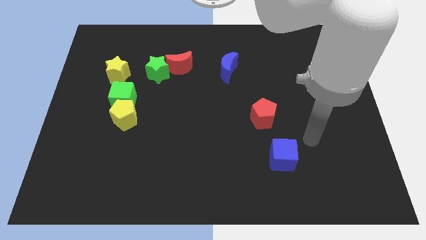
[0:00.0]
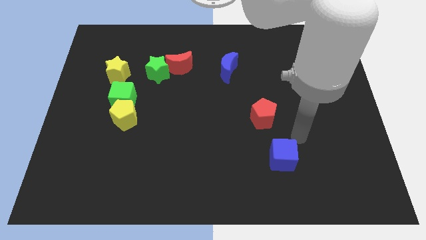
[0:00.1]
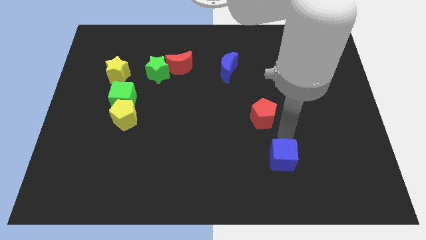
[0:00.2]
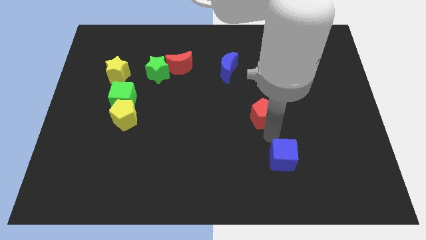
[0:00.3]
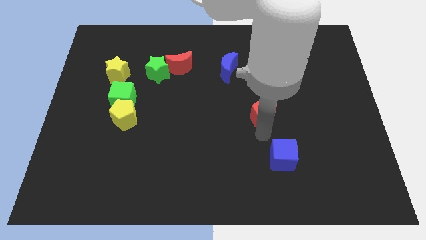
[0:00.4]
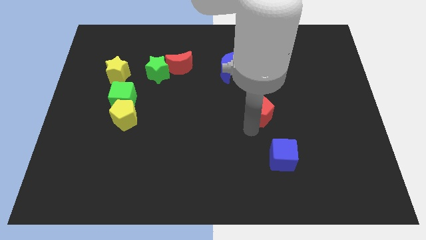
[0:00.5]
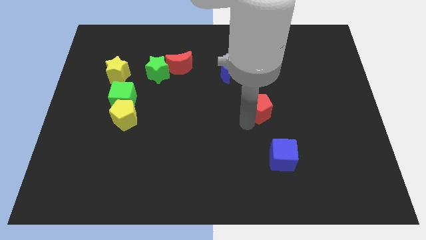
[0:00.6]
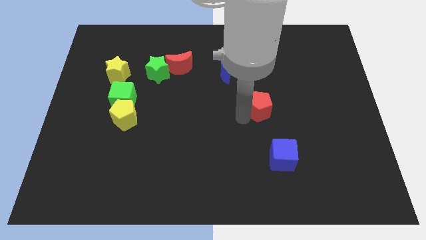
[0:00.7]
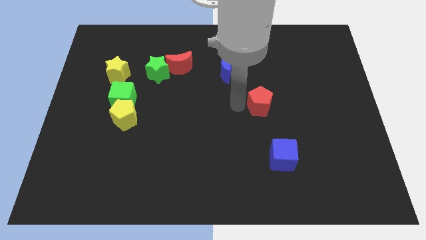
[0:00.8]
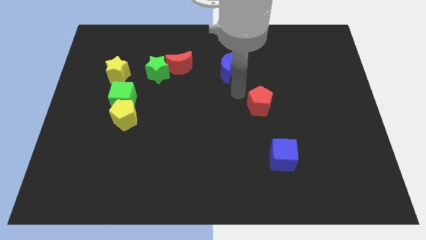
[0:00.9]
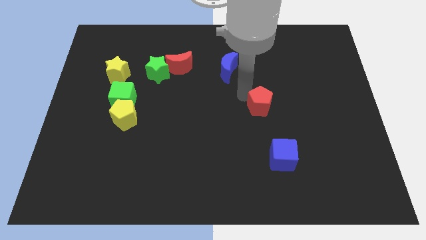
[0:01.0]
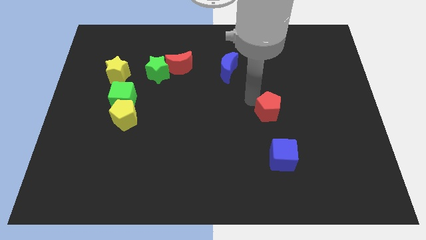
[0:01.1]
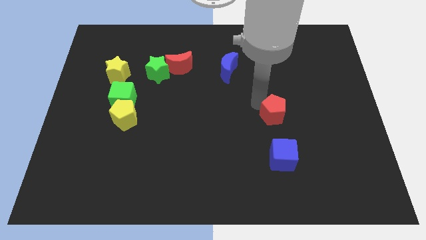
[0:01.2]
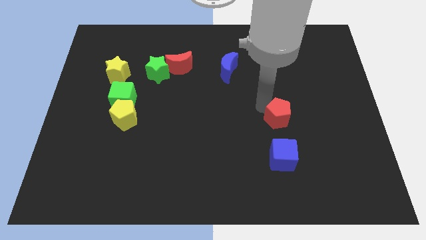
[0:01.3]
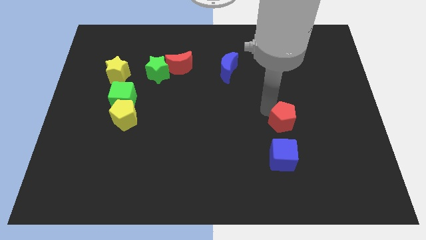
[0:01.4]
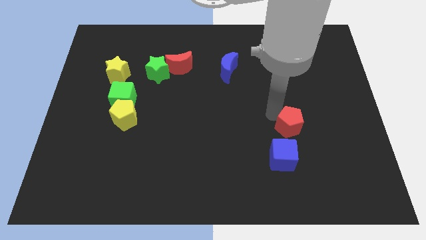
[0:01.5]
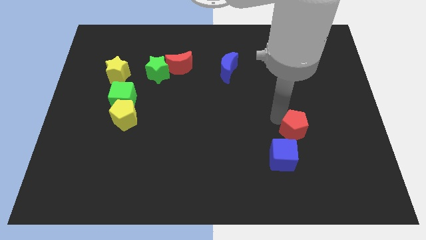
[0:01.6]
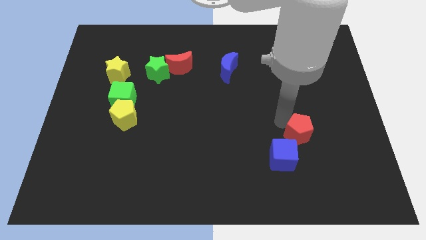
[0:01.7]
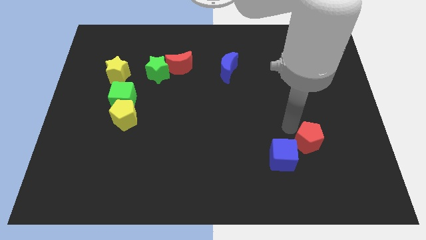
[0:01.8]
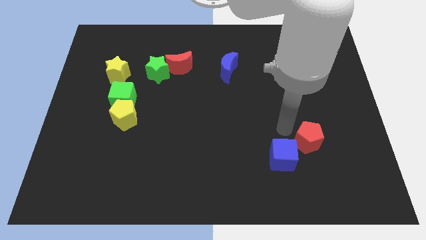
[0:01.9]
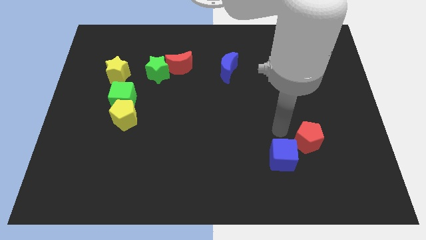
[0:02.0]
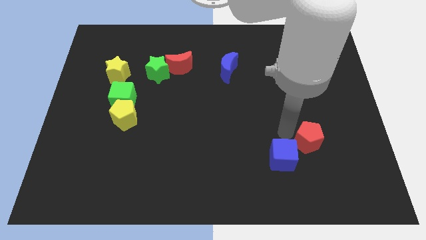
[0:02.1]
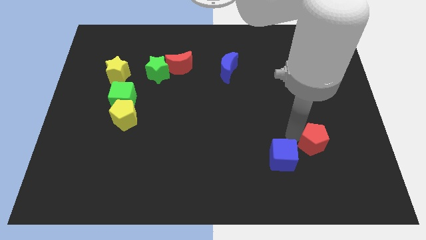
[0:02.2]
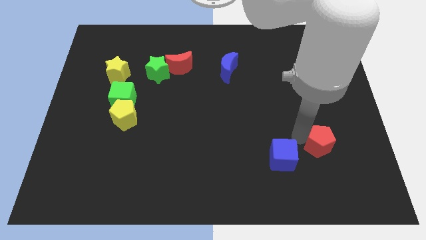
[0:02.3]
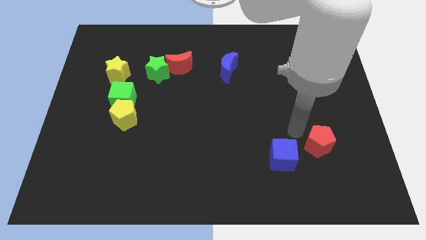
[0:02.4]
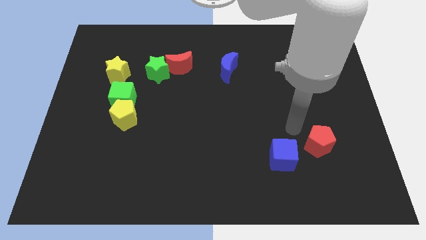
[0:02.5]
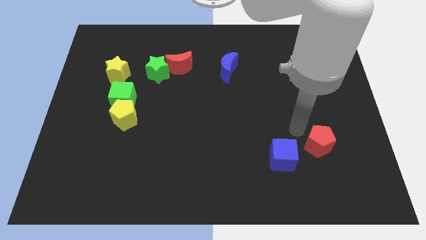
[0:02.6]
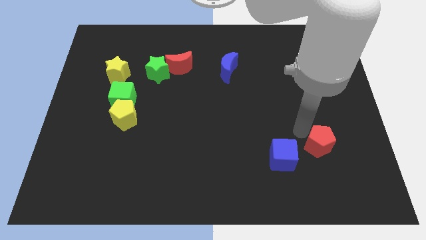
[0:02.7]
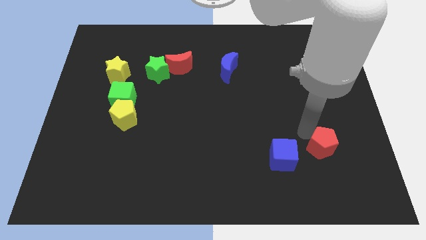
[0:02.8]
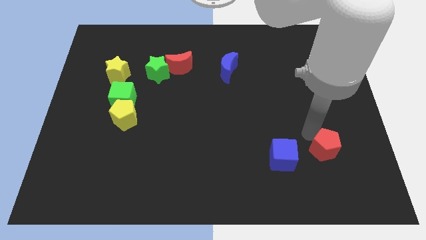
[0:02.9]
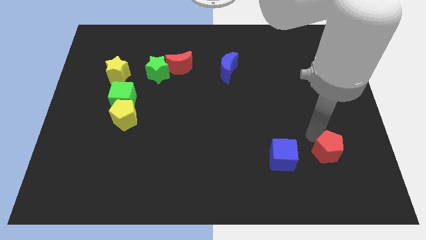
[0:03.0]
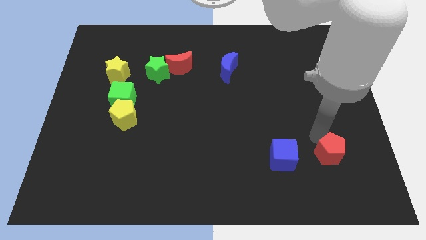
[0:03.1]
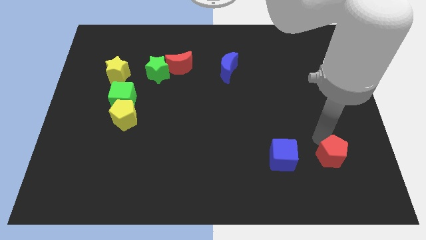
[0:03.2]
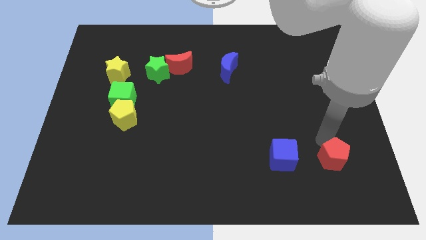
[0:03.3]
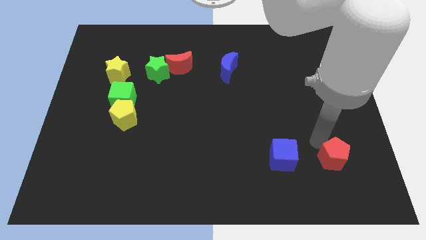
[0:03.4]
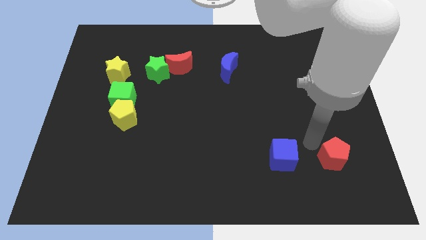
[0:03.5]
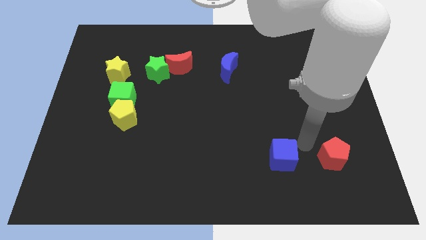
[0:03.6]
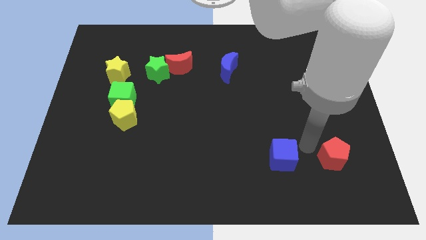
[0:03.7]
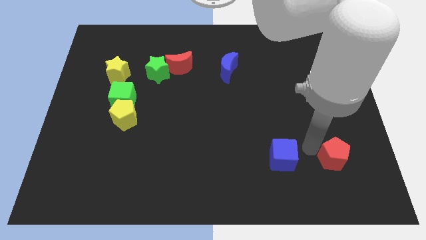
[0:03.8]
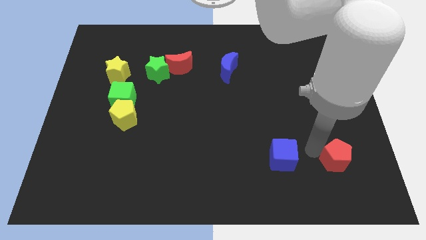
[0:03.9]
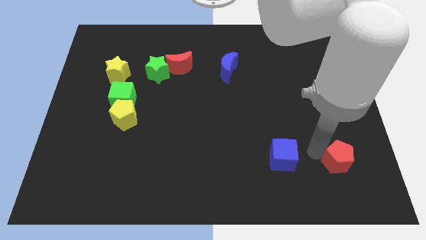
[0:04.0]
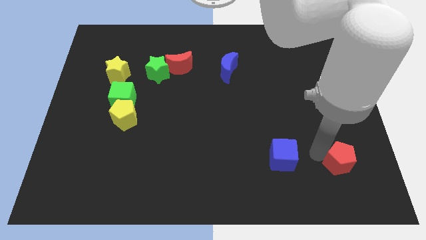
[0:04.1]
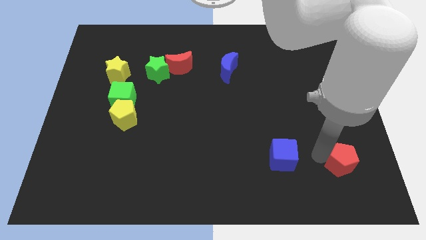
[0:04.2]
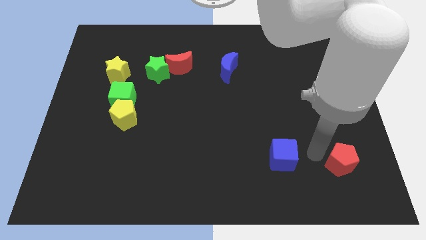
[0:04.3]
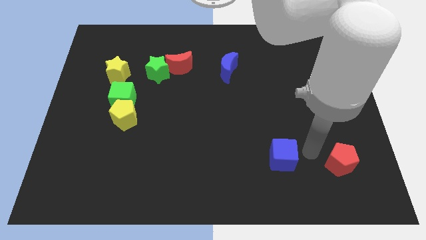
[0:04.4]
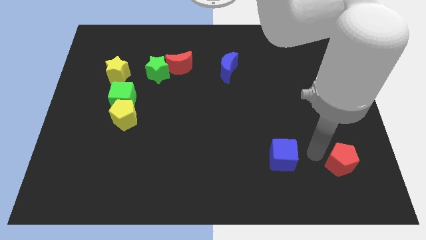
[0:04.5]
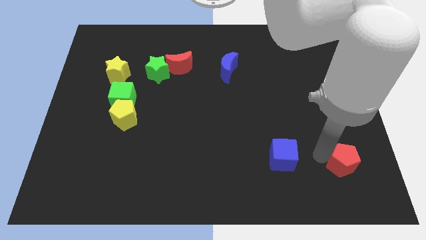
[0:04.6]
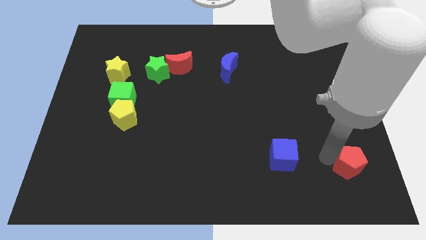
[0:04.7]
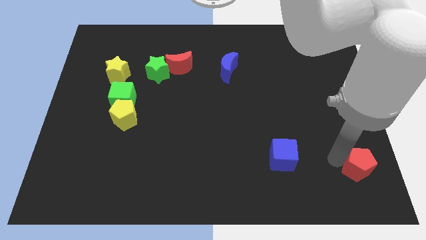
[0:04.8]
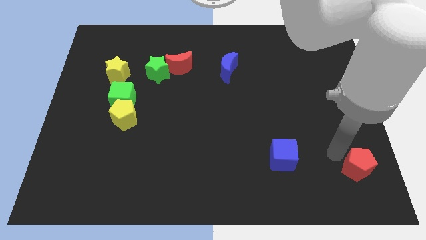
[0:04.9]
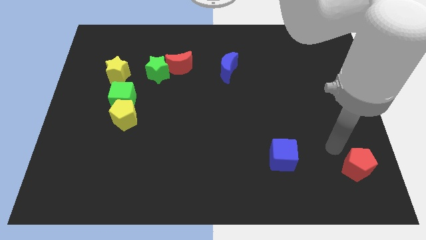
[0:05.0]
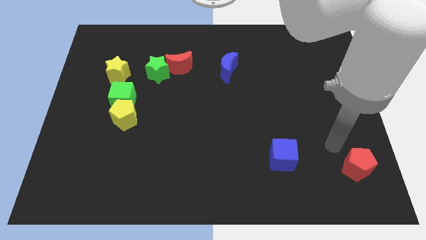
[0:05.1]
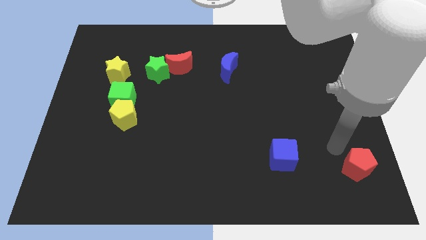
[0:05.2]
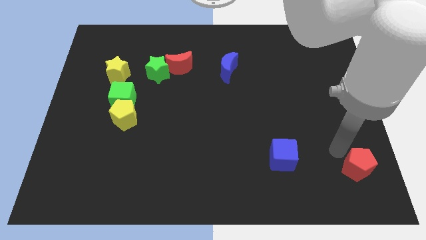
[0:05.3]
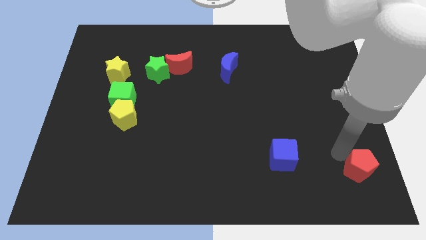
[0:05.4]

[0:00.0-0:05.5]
push the red pentagon to the bottom right of the board
